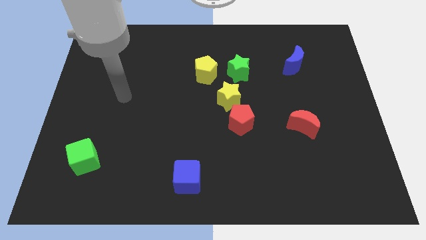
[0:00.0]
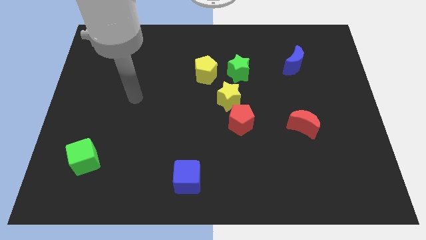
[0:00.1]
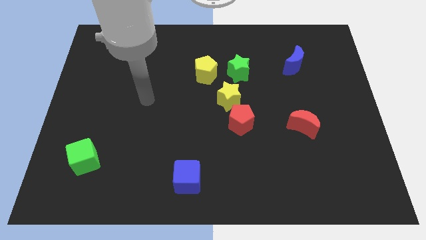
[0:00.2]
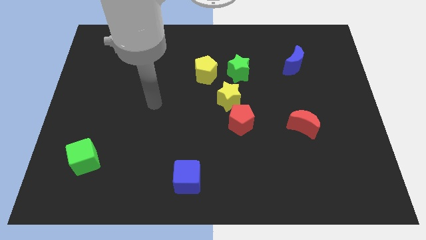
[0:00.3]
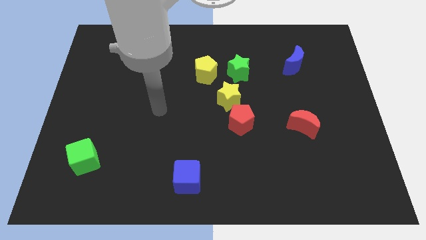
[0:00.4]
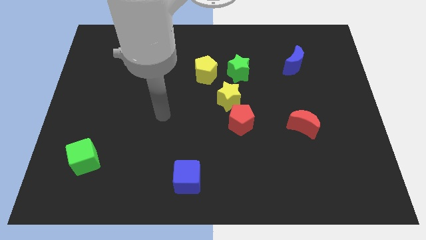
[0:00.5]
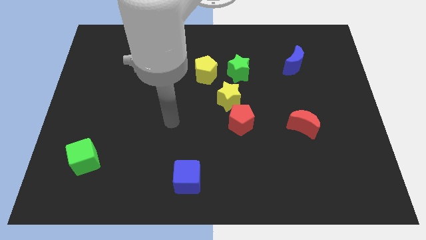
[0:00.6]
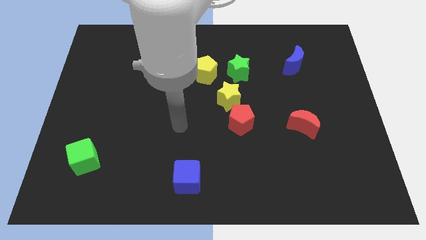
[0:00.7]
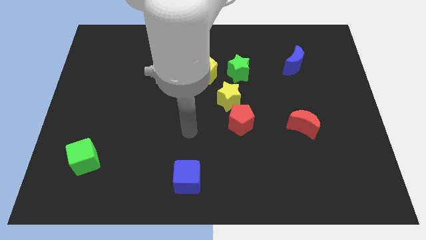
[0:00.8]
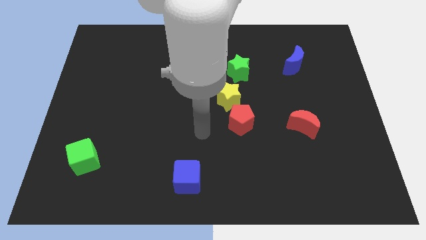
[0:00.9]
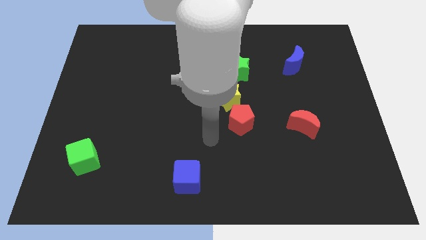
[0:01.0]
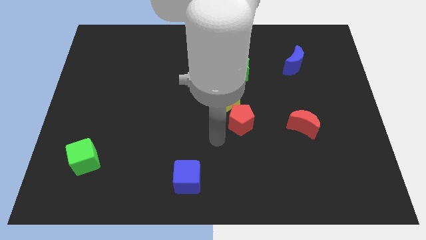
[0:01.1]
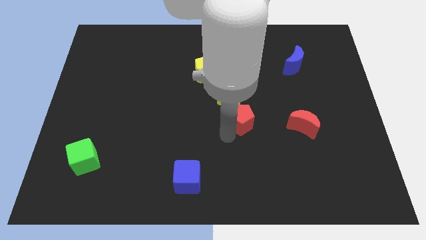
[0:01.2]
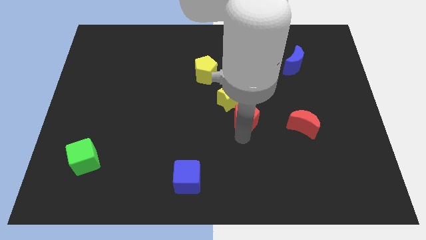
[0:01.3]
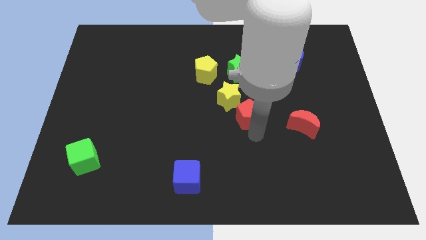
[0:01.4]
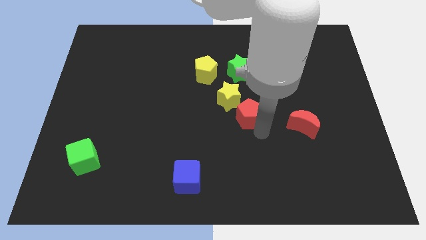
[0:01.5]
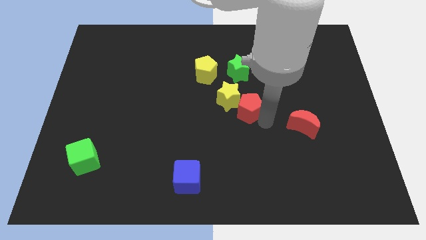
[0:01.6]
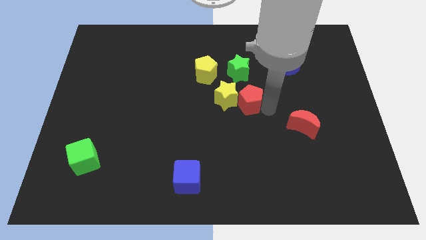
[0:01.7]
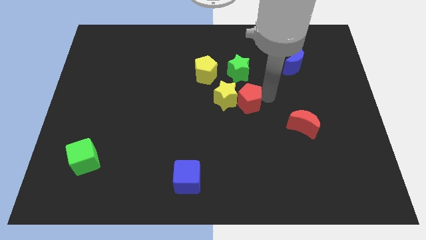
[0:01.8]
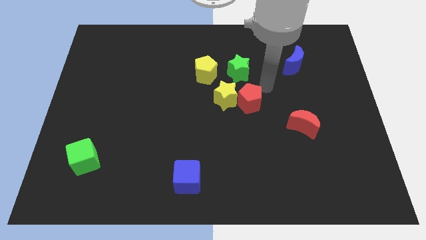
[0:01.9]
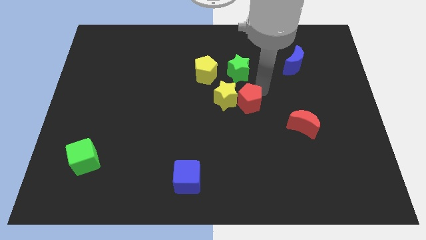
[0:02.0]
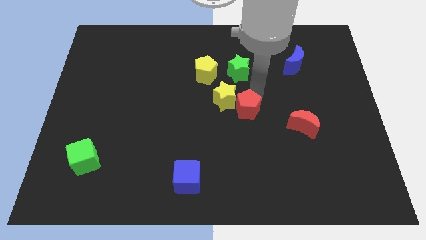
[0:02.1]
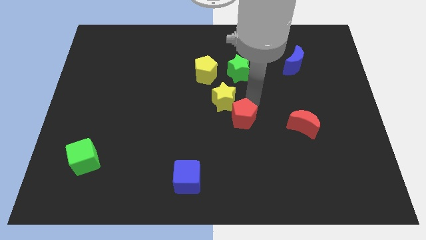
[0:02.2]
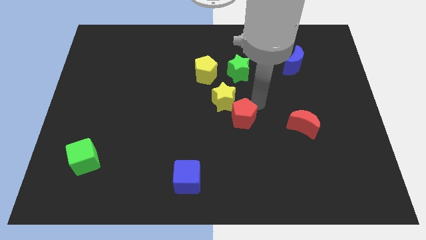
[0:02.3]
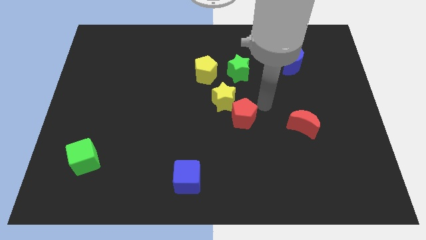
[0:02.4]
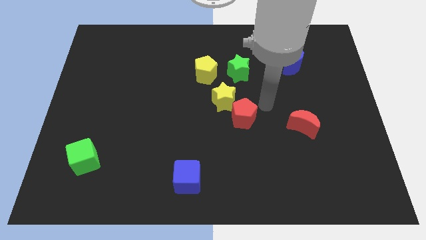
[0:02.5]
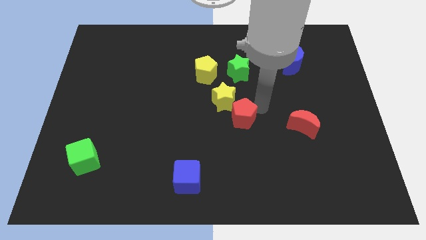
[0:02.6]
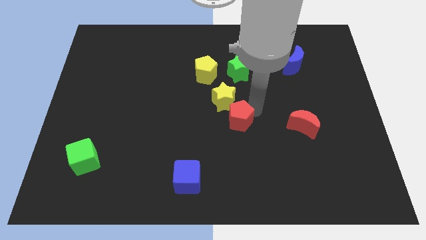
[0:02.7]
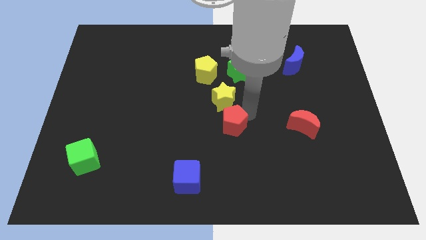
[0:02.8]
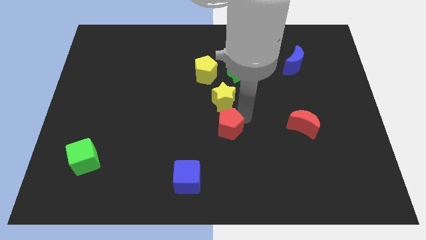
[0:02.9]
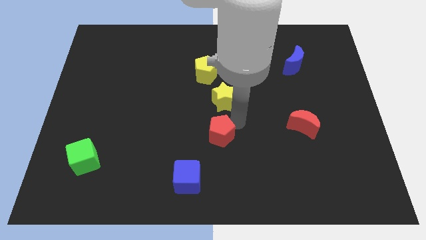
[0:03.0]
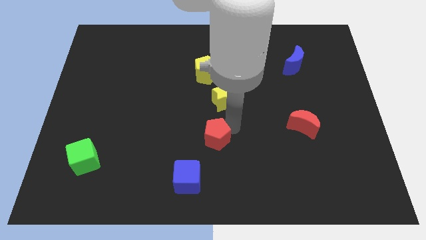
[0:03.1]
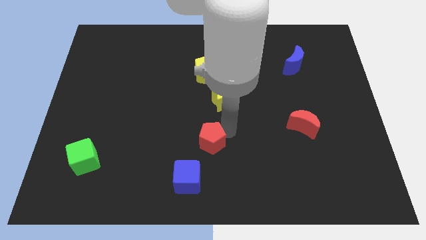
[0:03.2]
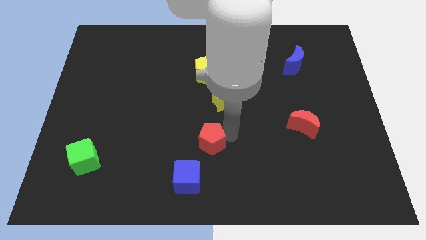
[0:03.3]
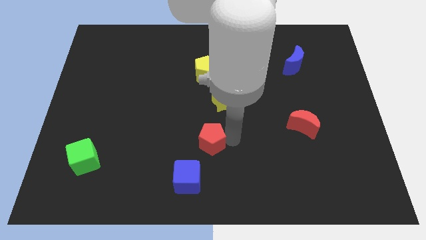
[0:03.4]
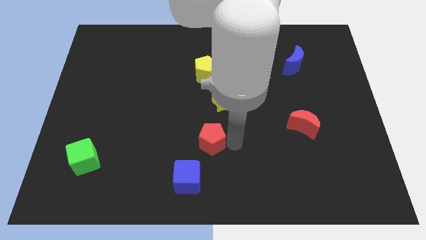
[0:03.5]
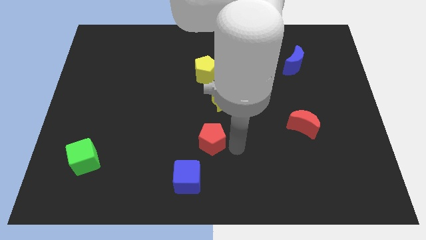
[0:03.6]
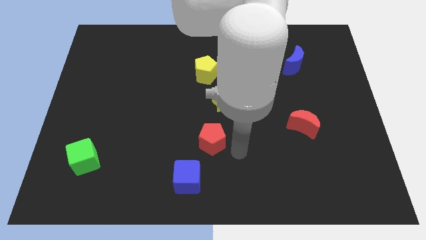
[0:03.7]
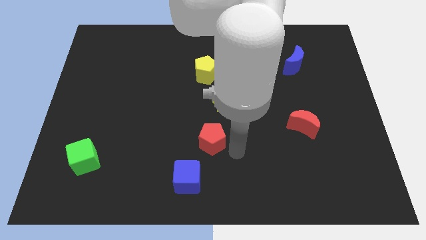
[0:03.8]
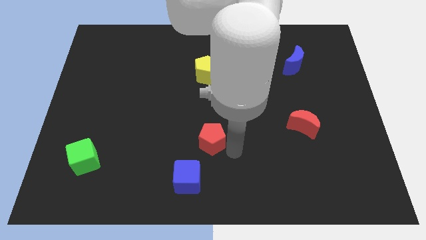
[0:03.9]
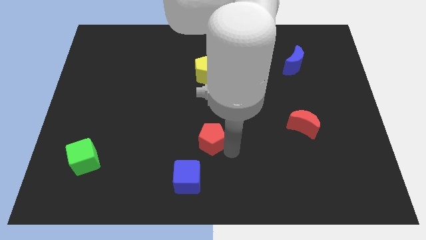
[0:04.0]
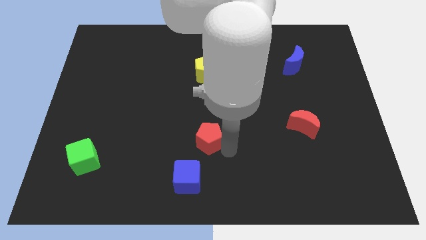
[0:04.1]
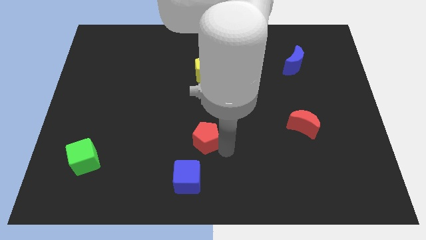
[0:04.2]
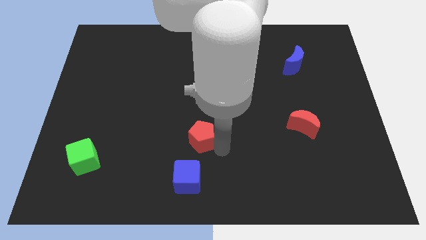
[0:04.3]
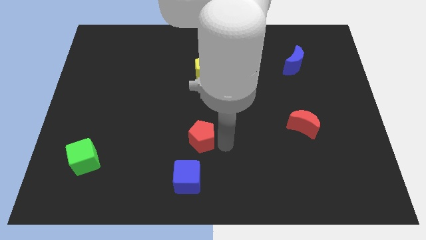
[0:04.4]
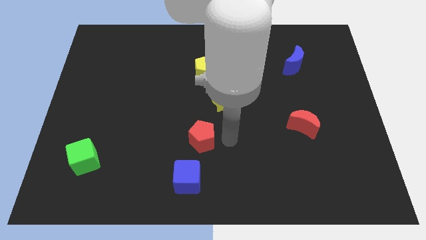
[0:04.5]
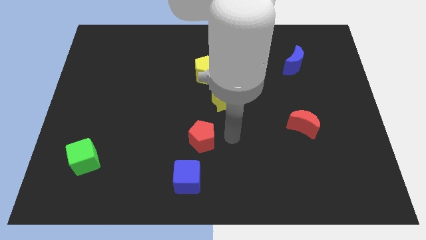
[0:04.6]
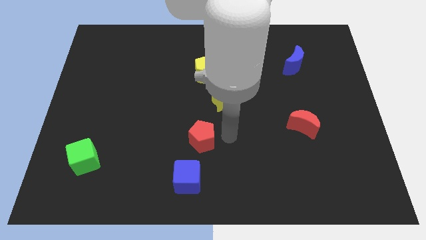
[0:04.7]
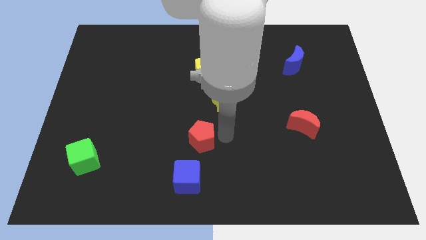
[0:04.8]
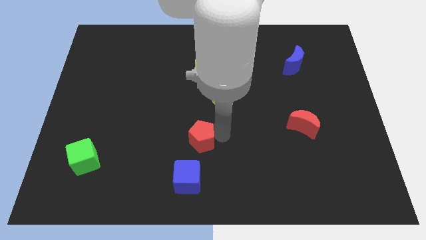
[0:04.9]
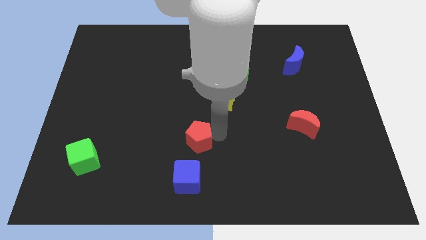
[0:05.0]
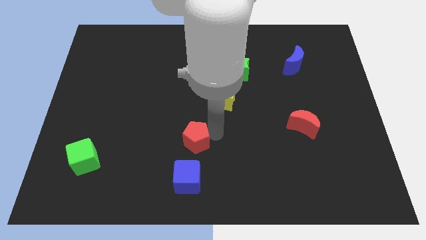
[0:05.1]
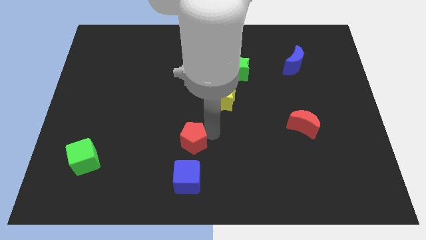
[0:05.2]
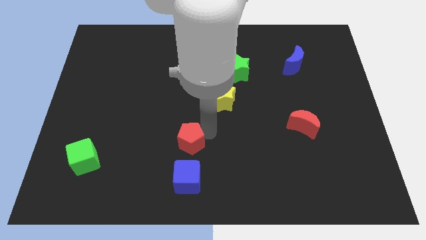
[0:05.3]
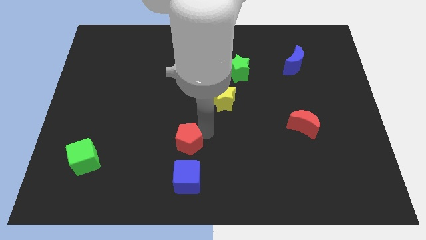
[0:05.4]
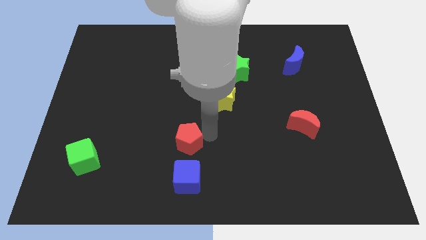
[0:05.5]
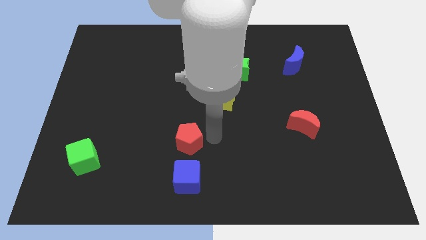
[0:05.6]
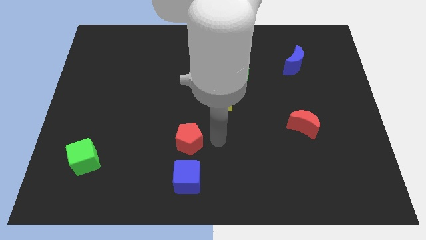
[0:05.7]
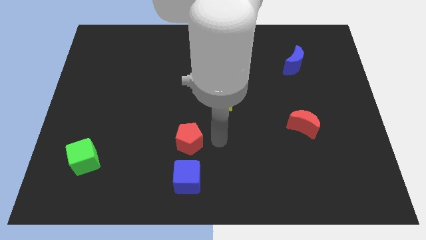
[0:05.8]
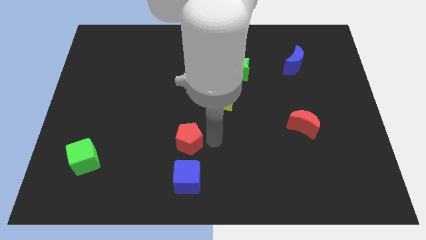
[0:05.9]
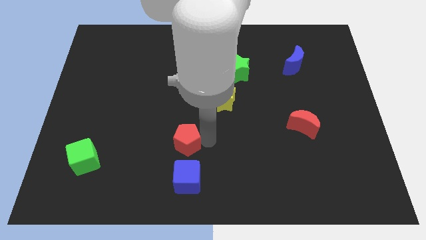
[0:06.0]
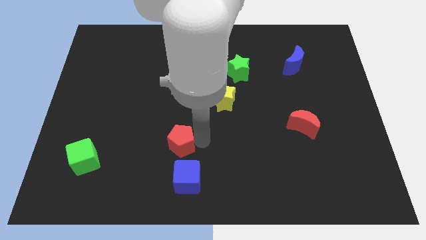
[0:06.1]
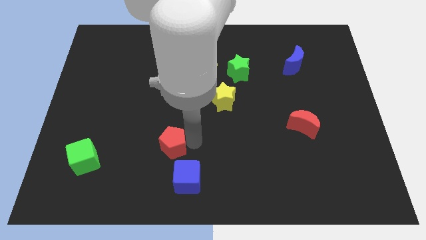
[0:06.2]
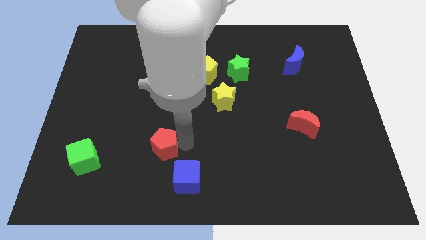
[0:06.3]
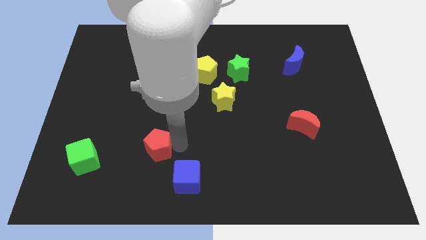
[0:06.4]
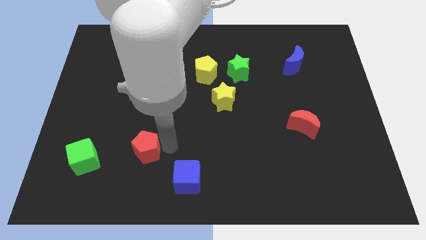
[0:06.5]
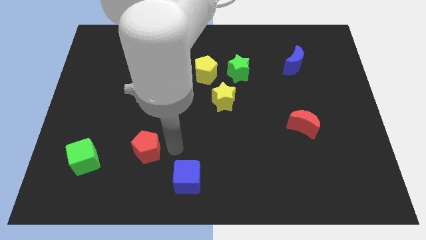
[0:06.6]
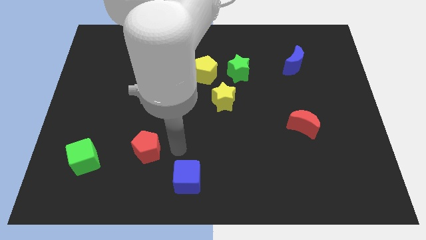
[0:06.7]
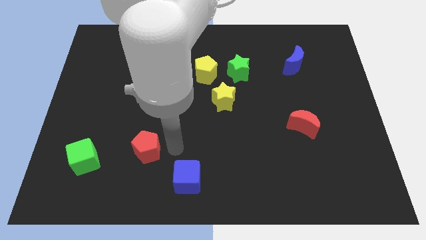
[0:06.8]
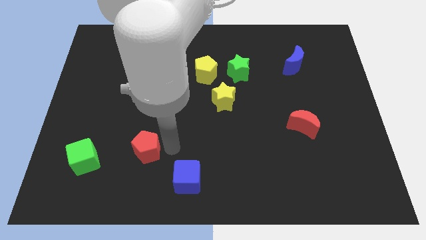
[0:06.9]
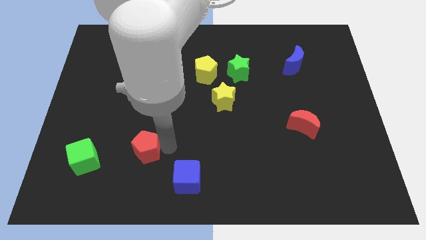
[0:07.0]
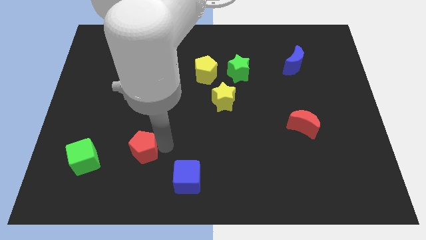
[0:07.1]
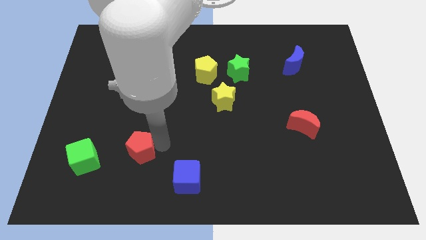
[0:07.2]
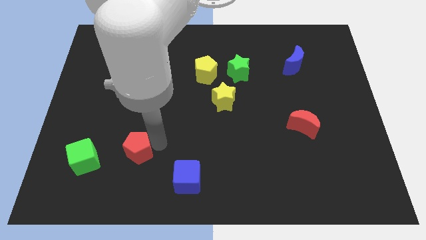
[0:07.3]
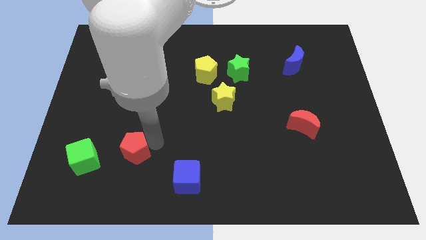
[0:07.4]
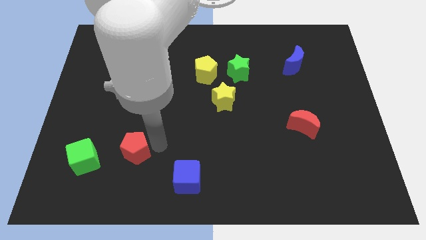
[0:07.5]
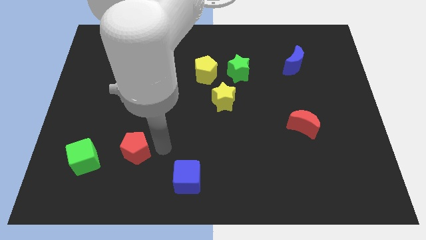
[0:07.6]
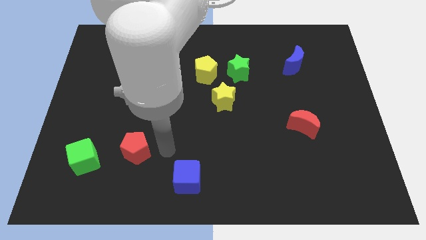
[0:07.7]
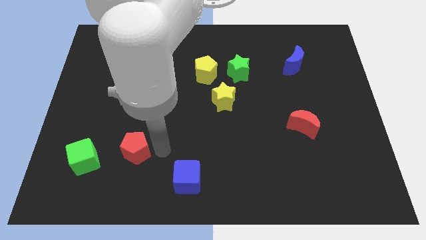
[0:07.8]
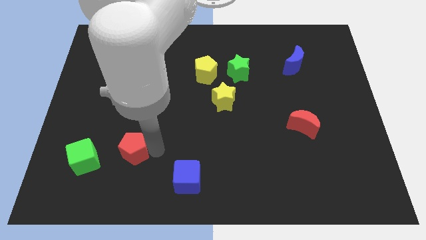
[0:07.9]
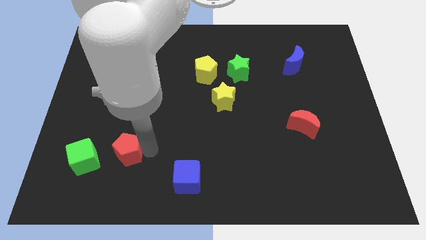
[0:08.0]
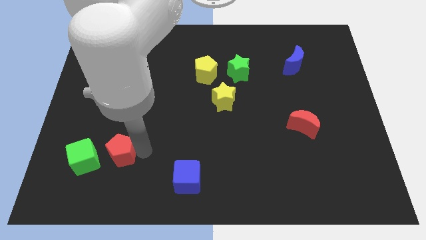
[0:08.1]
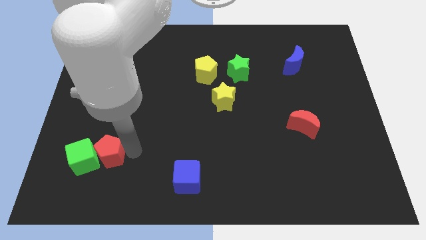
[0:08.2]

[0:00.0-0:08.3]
slide the red pentagon next to the green cube
